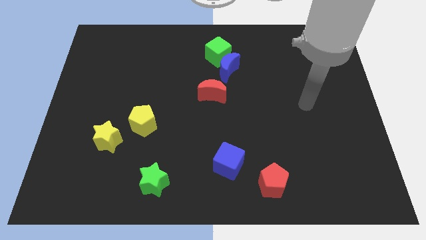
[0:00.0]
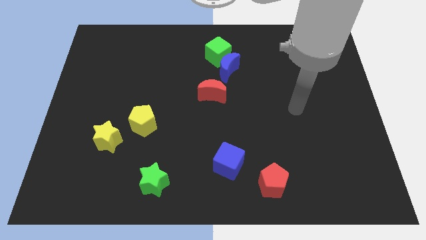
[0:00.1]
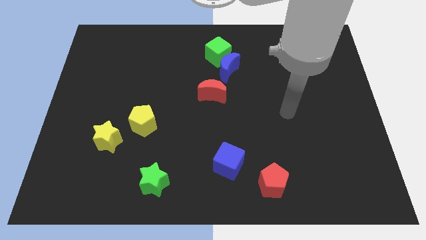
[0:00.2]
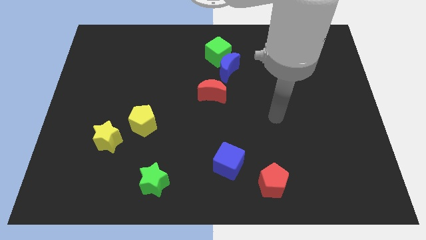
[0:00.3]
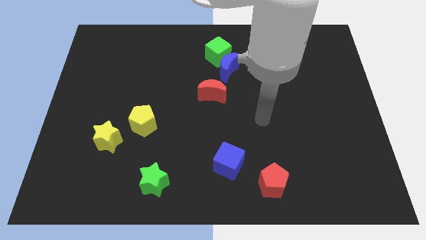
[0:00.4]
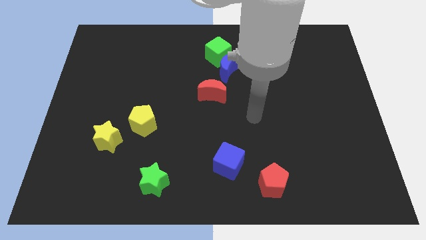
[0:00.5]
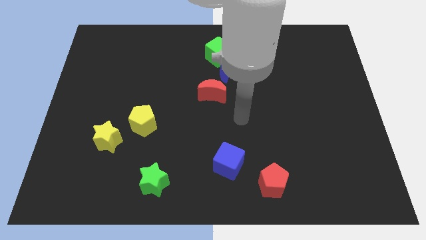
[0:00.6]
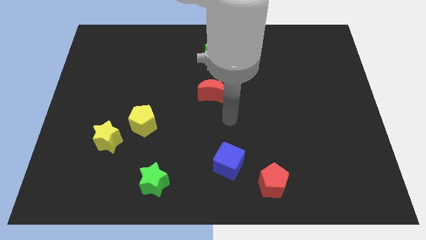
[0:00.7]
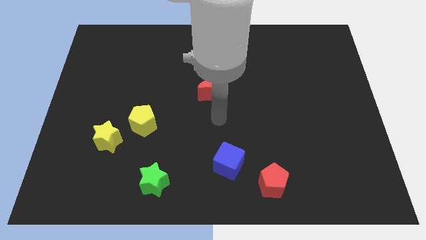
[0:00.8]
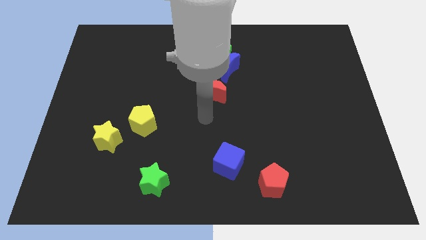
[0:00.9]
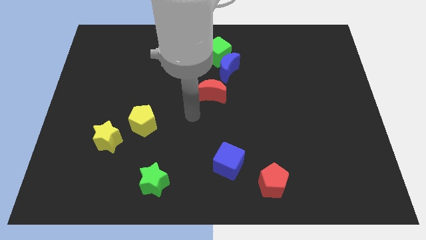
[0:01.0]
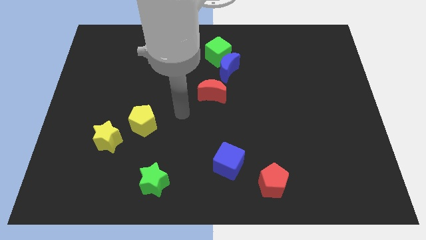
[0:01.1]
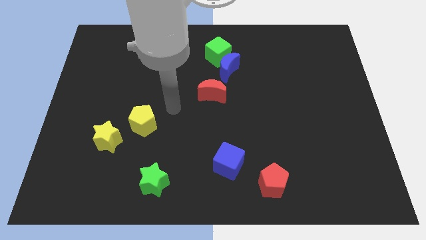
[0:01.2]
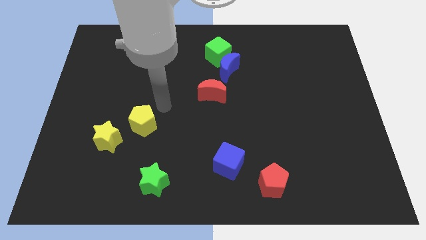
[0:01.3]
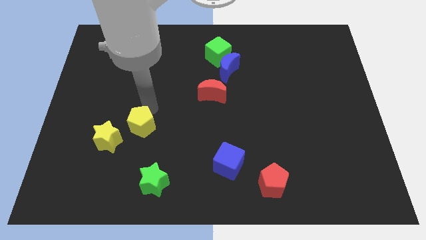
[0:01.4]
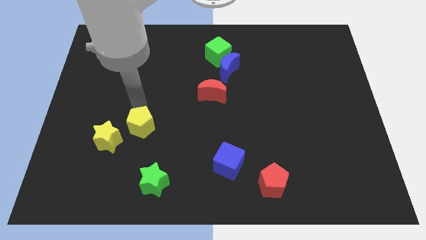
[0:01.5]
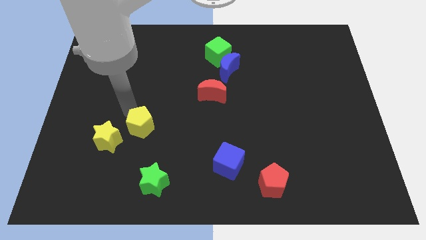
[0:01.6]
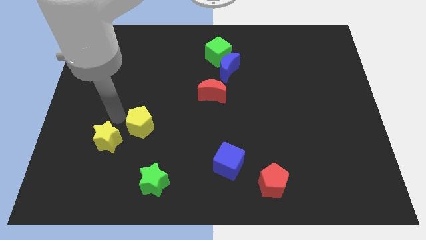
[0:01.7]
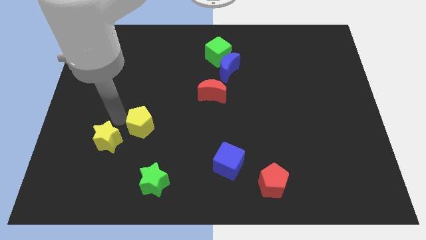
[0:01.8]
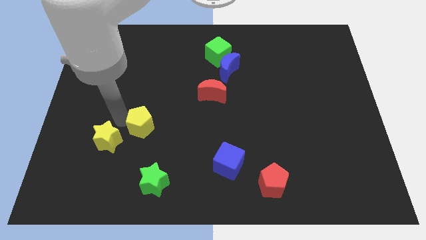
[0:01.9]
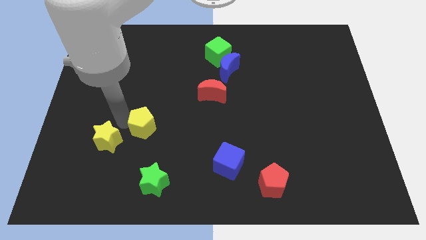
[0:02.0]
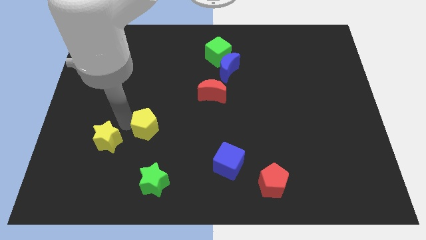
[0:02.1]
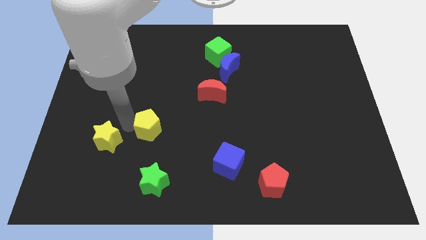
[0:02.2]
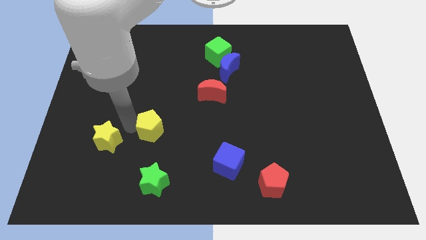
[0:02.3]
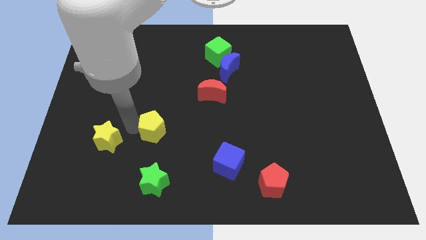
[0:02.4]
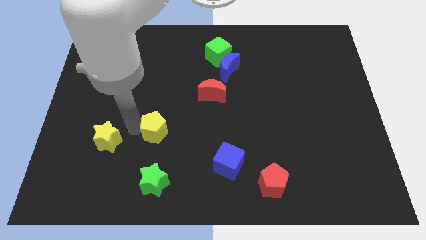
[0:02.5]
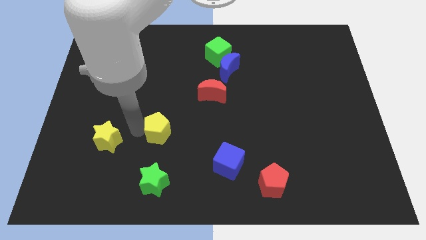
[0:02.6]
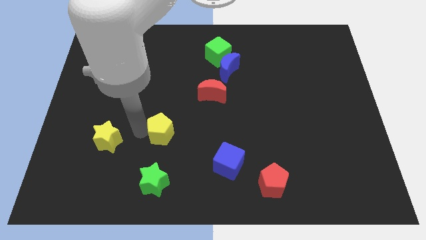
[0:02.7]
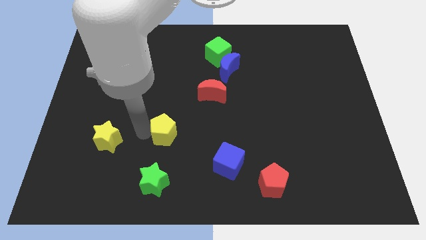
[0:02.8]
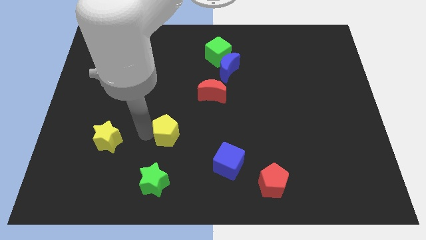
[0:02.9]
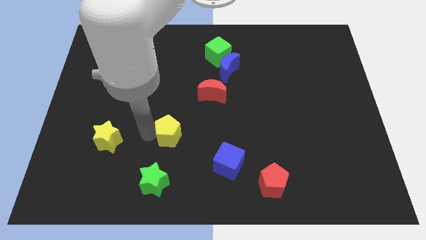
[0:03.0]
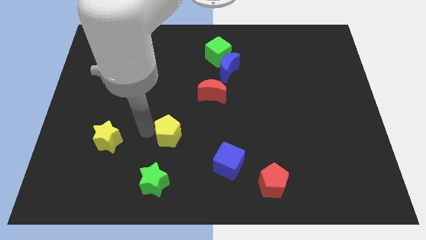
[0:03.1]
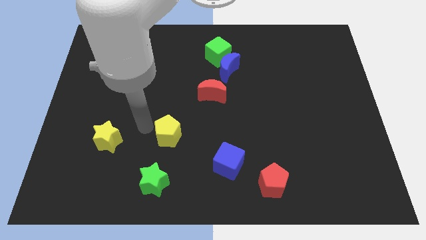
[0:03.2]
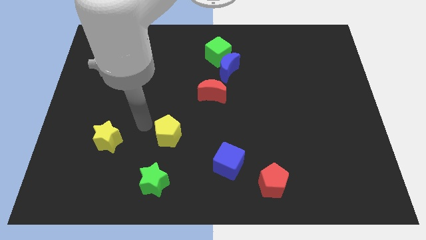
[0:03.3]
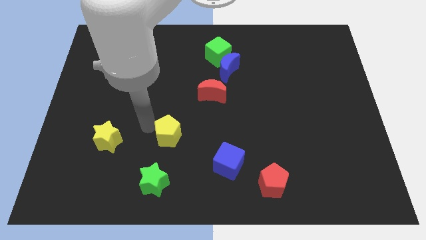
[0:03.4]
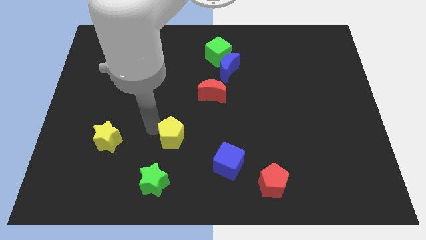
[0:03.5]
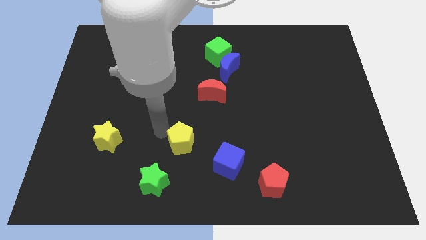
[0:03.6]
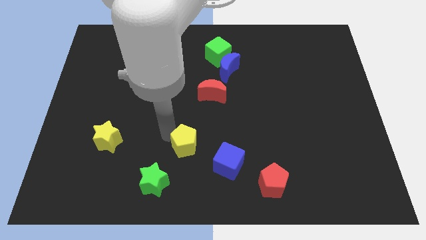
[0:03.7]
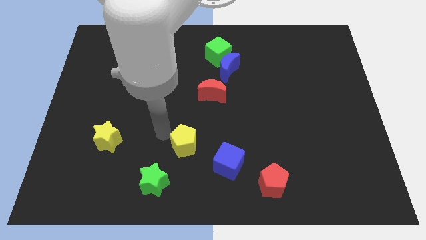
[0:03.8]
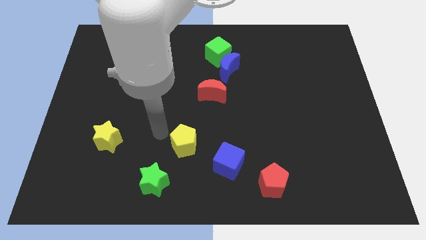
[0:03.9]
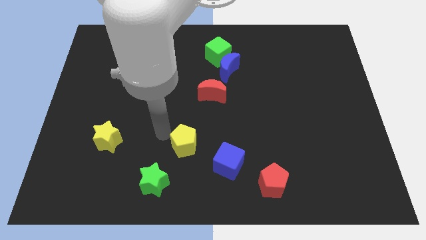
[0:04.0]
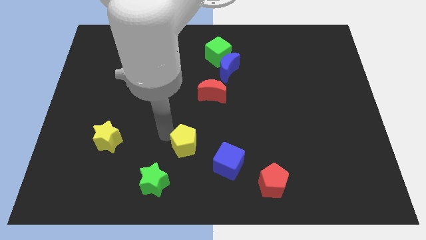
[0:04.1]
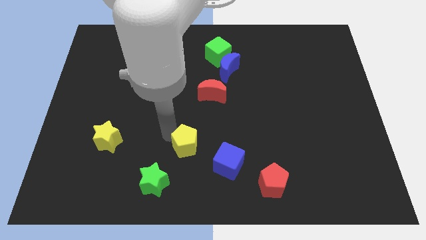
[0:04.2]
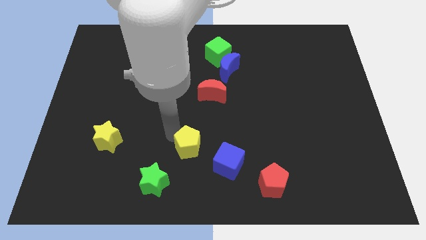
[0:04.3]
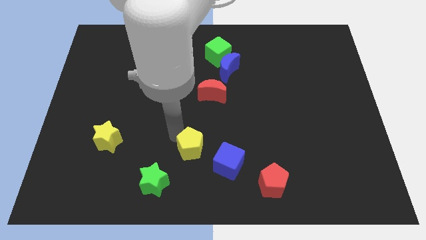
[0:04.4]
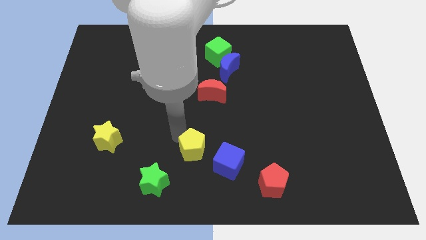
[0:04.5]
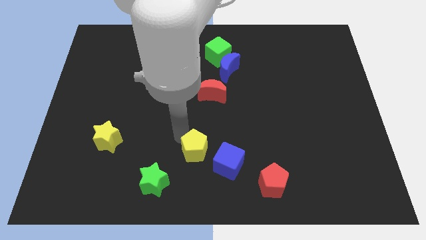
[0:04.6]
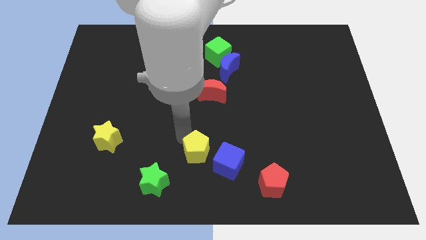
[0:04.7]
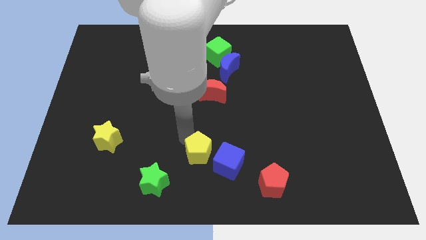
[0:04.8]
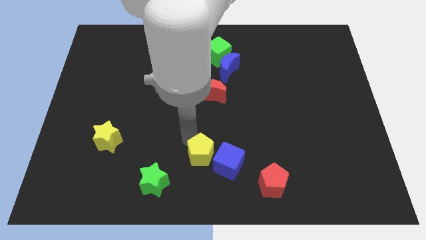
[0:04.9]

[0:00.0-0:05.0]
push the yellow pentagon towards the blue cube

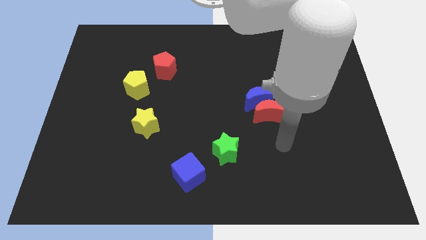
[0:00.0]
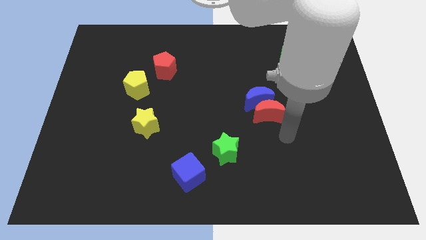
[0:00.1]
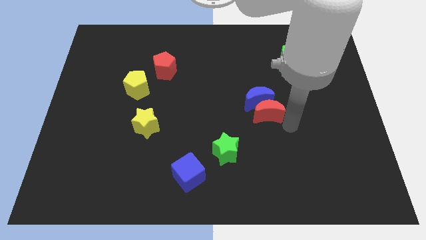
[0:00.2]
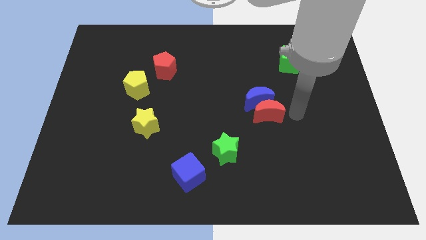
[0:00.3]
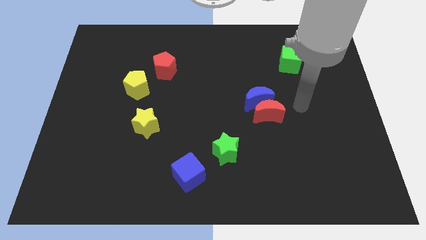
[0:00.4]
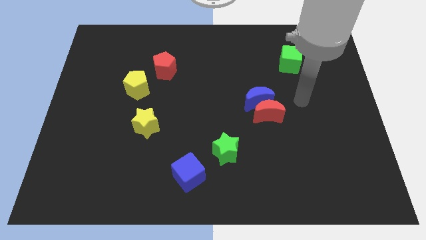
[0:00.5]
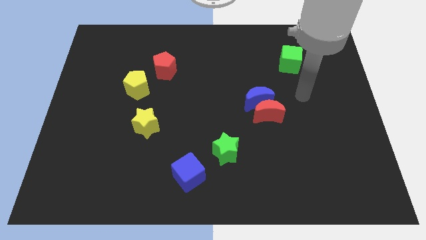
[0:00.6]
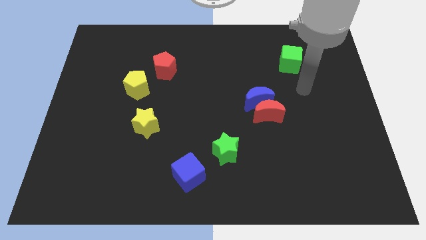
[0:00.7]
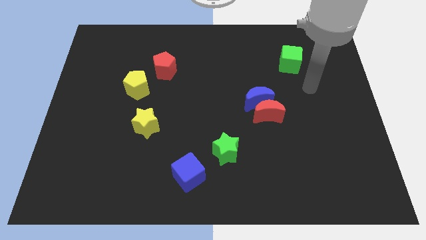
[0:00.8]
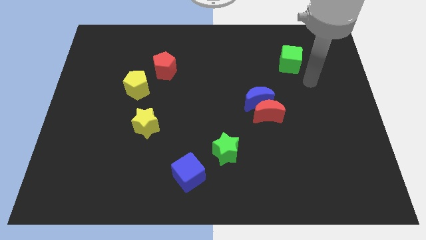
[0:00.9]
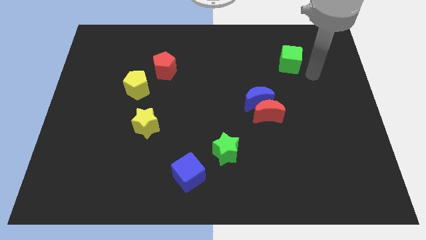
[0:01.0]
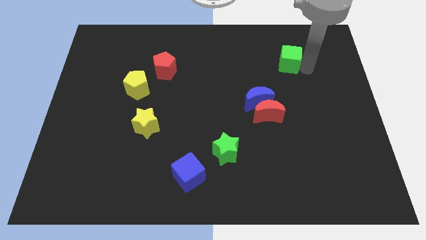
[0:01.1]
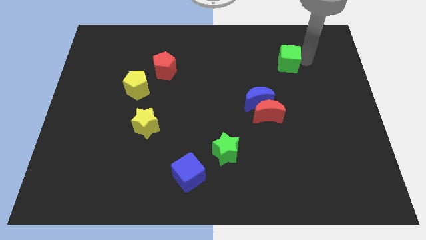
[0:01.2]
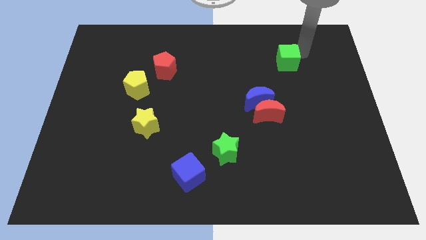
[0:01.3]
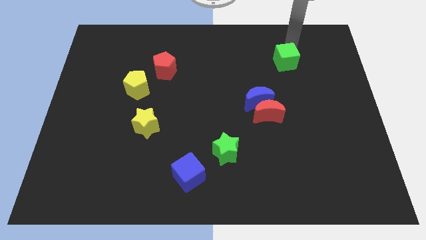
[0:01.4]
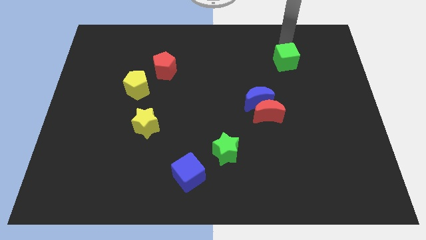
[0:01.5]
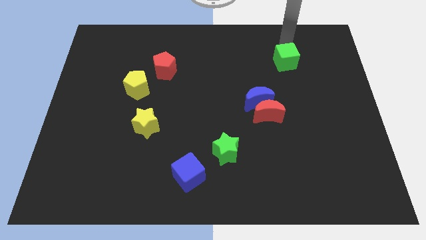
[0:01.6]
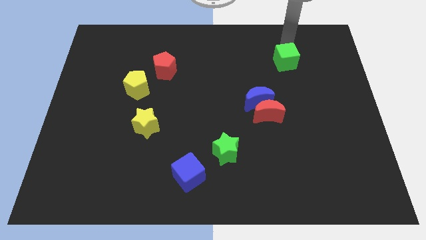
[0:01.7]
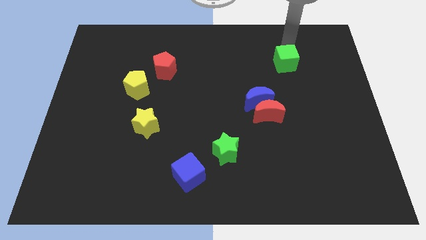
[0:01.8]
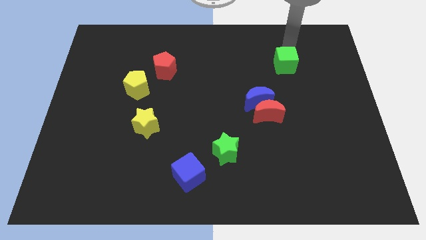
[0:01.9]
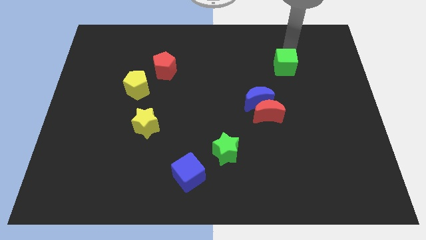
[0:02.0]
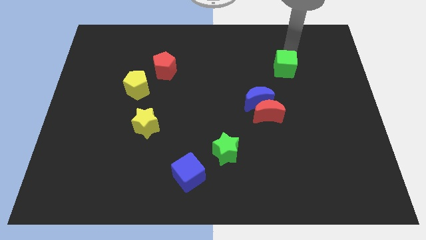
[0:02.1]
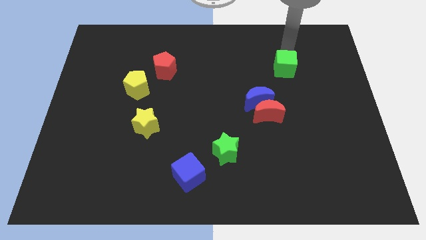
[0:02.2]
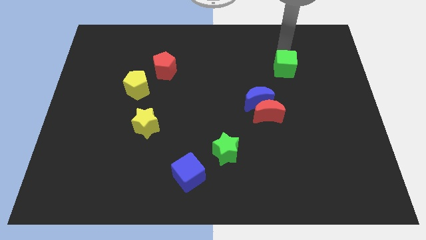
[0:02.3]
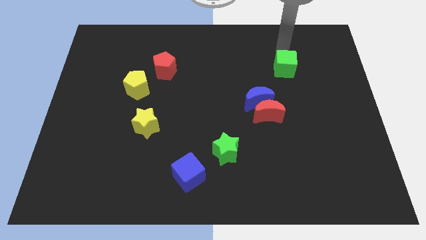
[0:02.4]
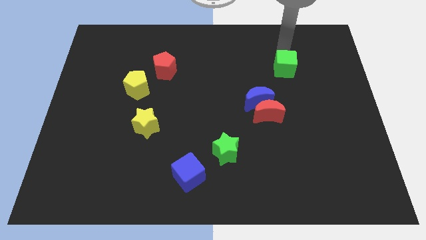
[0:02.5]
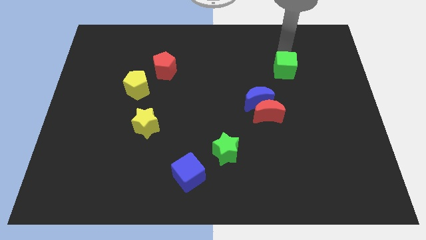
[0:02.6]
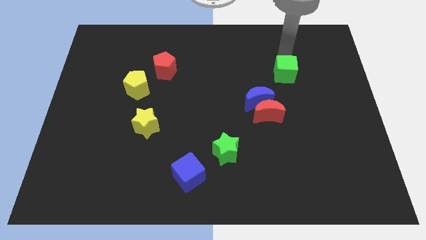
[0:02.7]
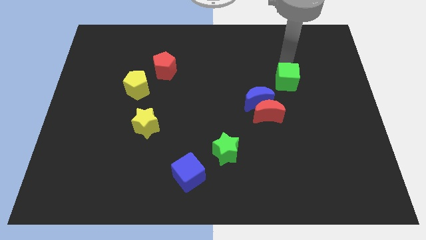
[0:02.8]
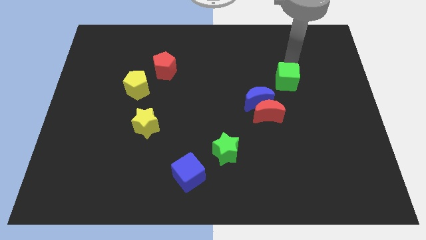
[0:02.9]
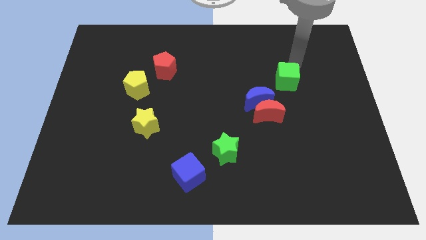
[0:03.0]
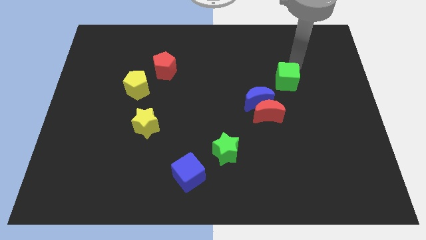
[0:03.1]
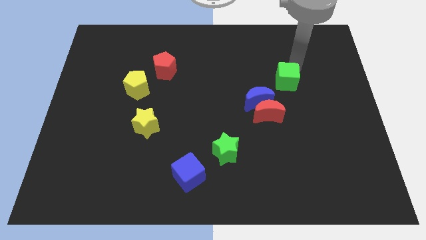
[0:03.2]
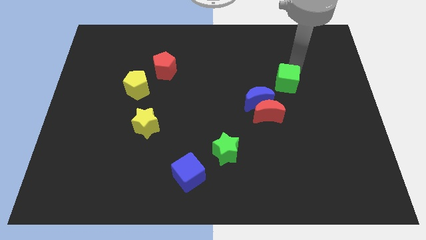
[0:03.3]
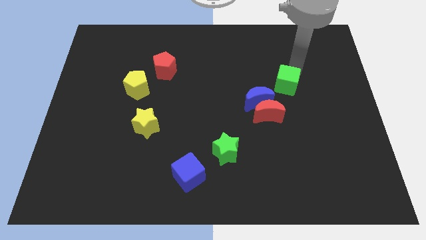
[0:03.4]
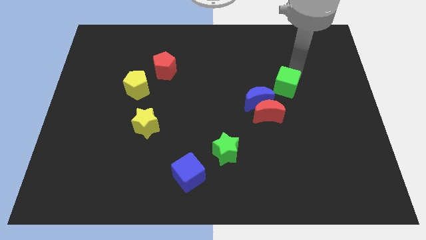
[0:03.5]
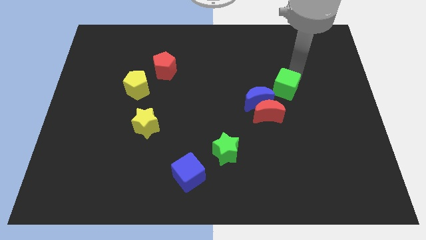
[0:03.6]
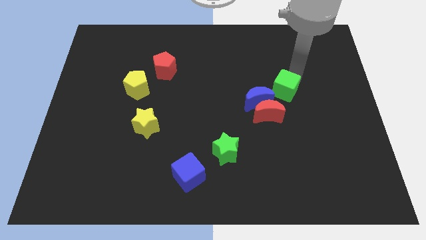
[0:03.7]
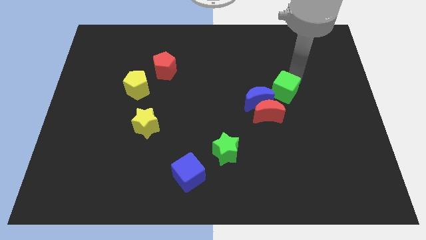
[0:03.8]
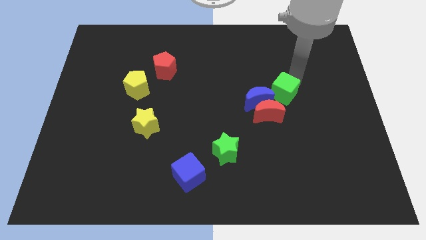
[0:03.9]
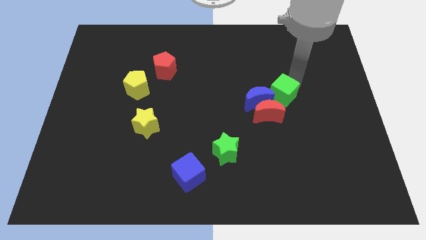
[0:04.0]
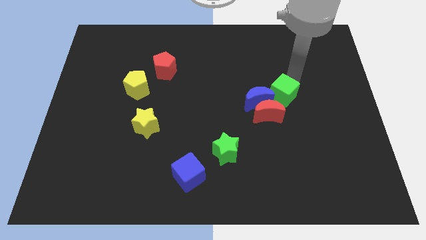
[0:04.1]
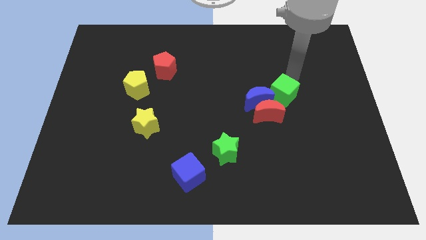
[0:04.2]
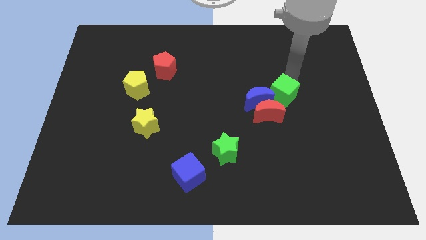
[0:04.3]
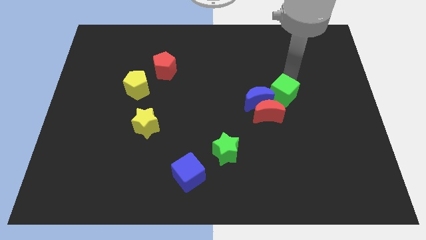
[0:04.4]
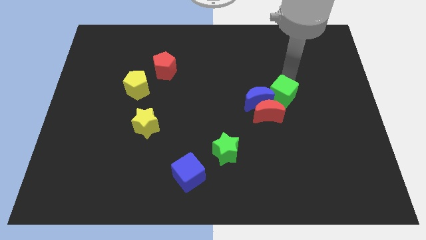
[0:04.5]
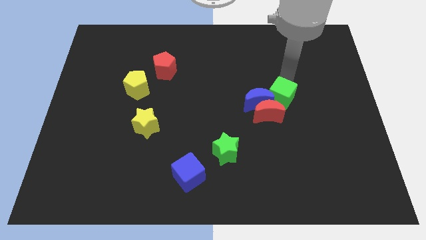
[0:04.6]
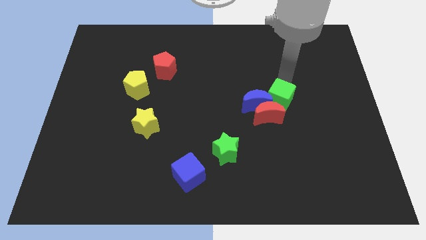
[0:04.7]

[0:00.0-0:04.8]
put the green cube towards the red moon
